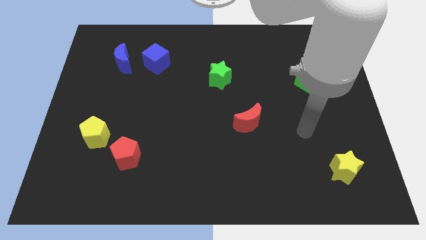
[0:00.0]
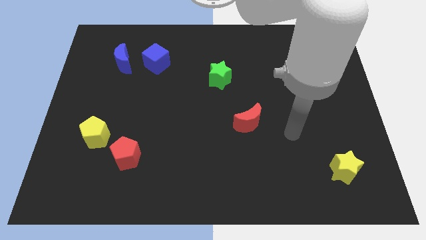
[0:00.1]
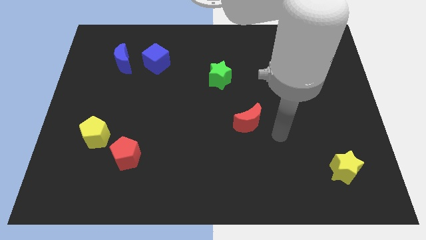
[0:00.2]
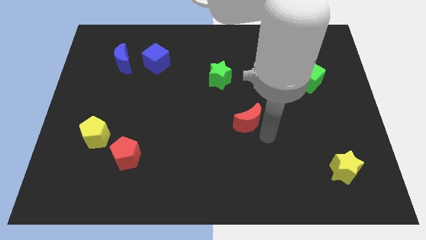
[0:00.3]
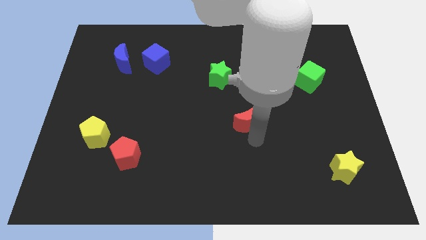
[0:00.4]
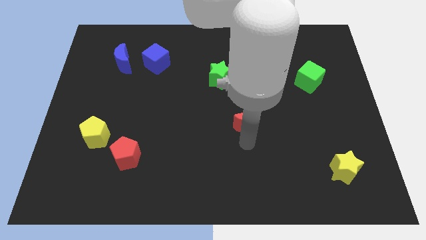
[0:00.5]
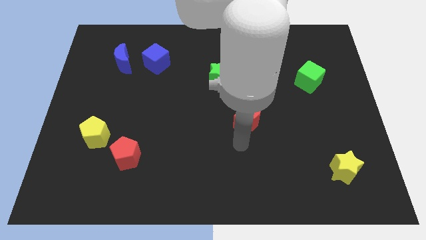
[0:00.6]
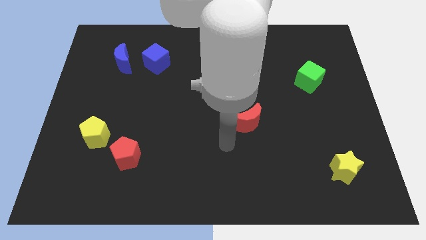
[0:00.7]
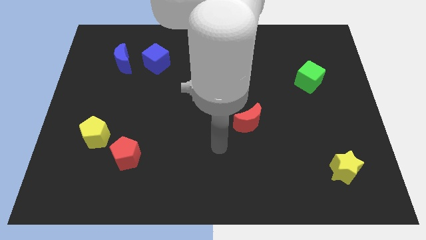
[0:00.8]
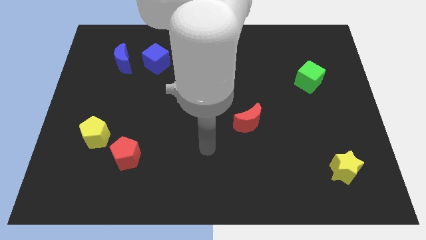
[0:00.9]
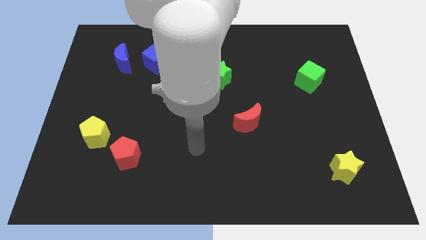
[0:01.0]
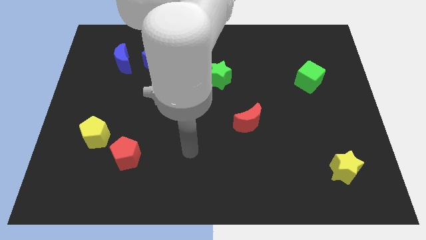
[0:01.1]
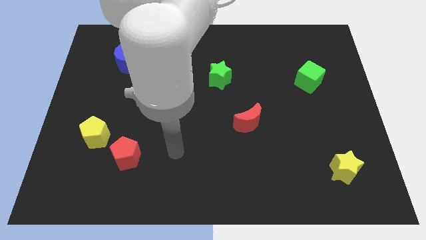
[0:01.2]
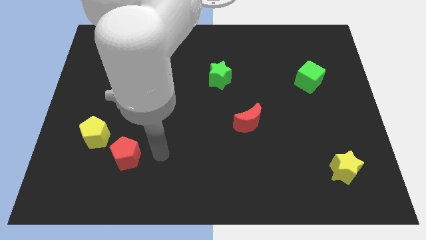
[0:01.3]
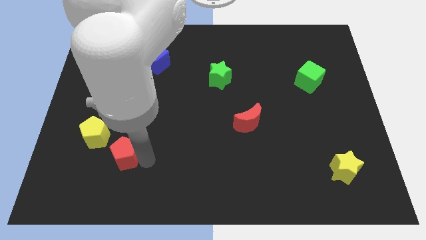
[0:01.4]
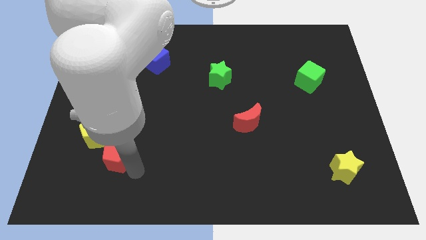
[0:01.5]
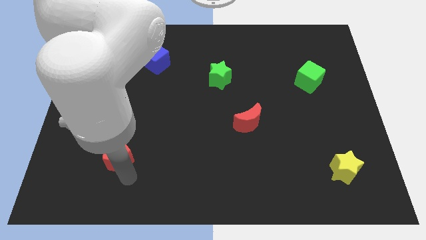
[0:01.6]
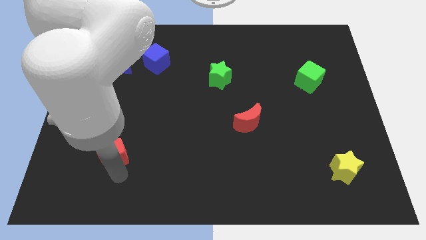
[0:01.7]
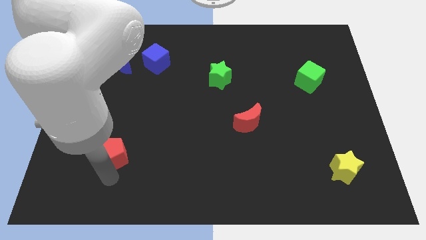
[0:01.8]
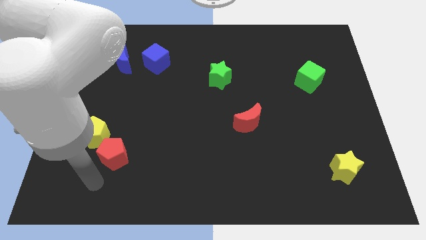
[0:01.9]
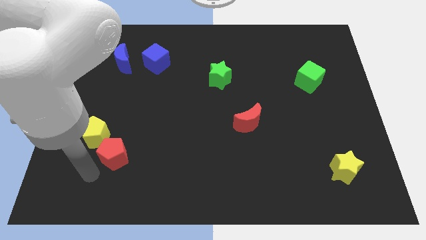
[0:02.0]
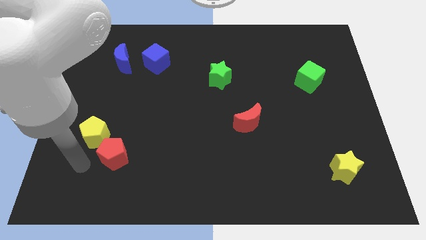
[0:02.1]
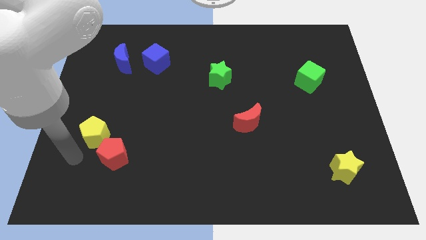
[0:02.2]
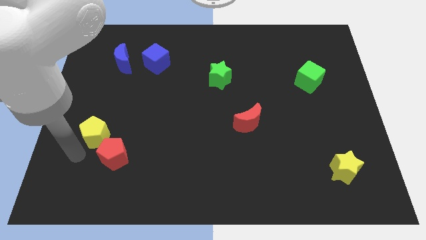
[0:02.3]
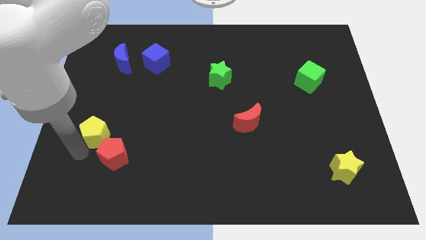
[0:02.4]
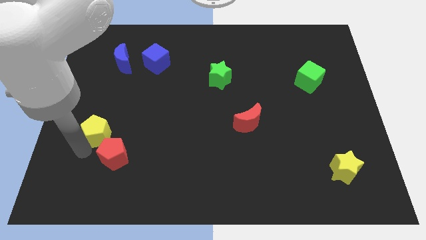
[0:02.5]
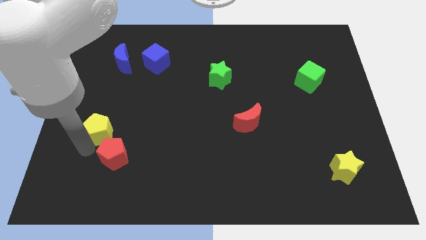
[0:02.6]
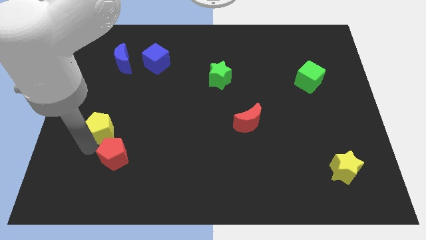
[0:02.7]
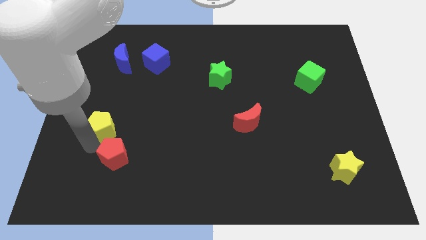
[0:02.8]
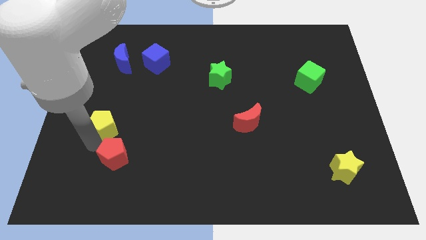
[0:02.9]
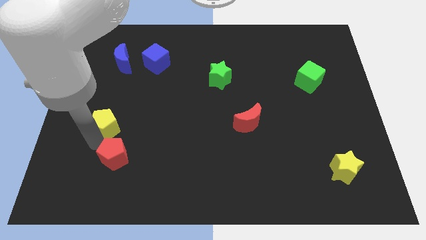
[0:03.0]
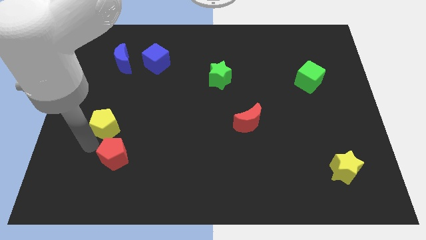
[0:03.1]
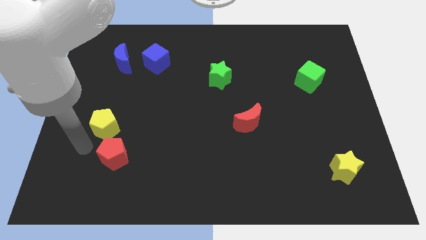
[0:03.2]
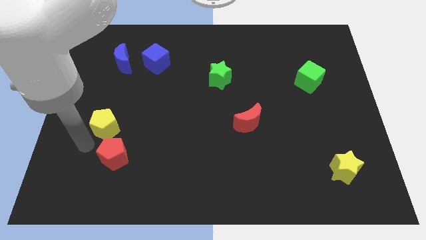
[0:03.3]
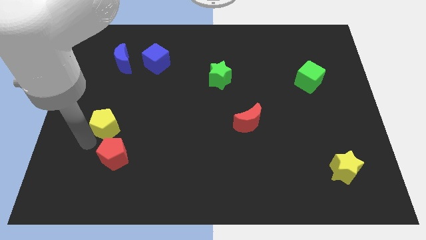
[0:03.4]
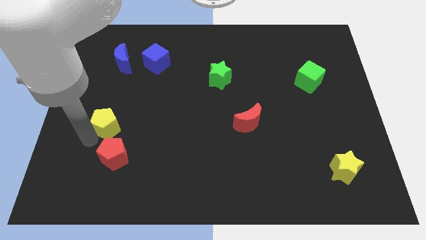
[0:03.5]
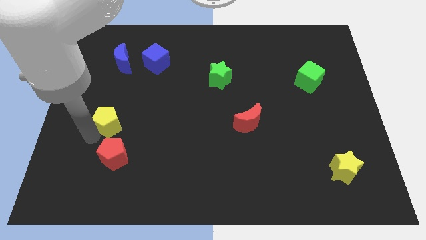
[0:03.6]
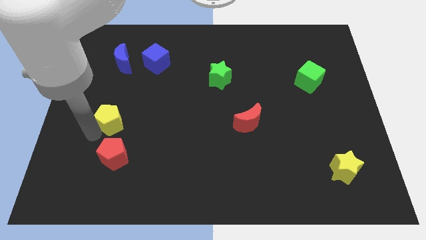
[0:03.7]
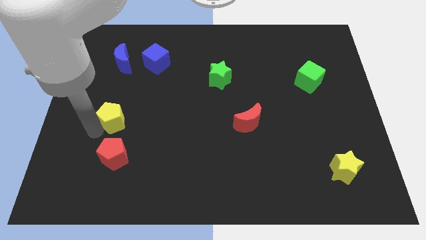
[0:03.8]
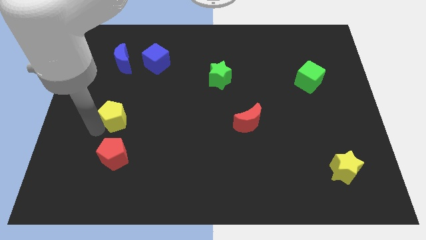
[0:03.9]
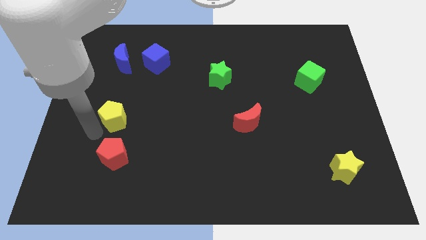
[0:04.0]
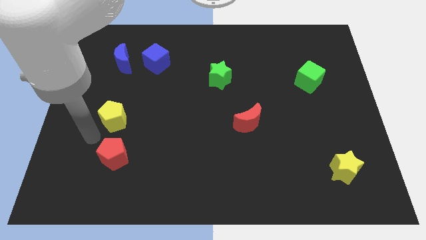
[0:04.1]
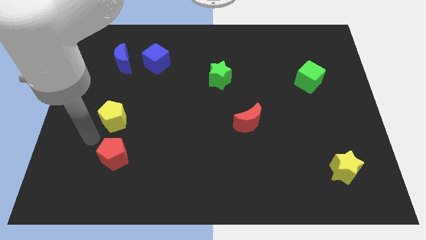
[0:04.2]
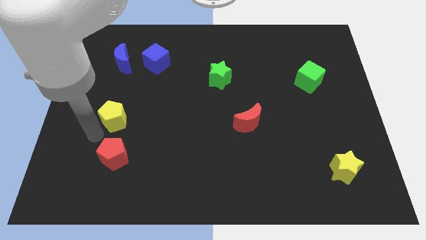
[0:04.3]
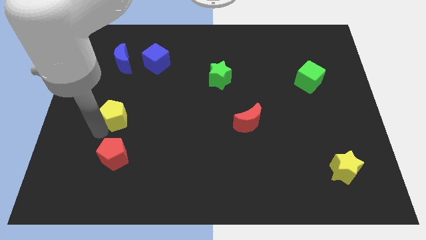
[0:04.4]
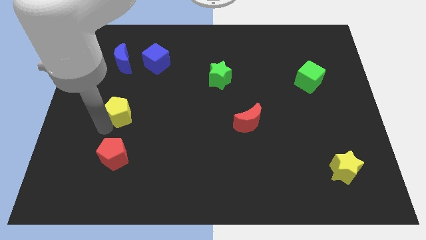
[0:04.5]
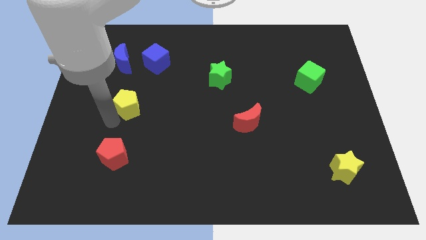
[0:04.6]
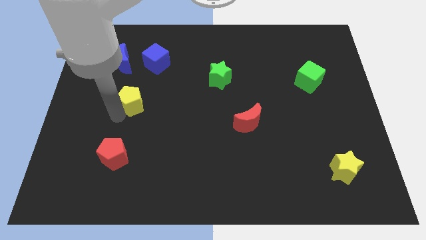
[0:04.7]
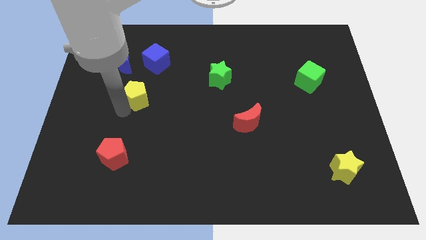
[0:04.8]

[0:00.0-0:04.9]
move the yellow pentagon below the blue cube

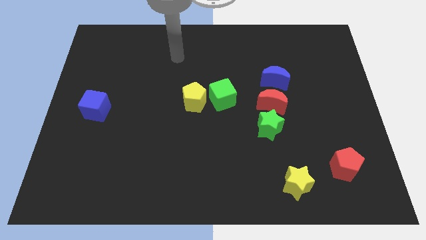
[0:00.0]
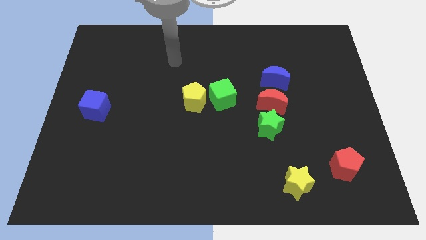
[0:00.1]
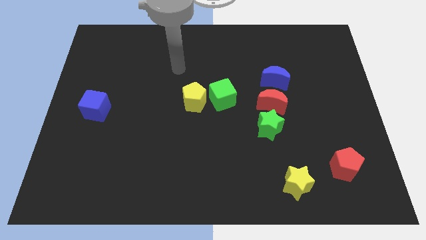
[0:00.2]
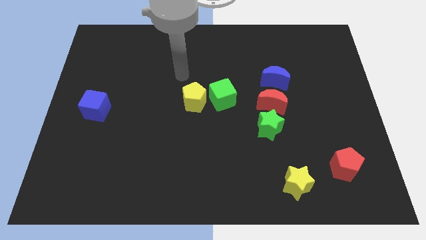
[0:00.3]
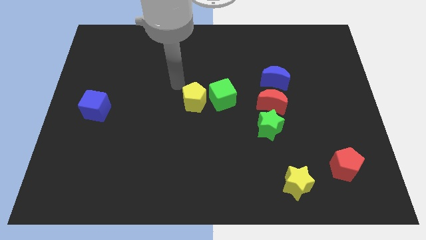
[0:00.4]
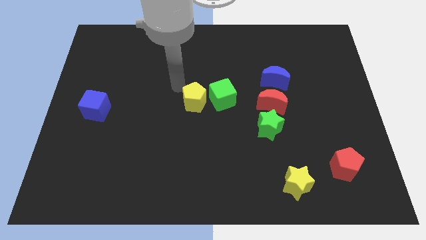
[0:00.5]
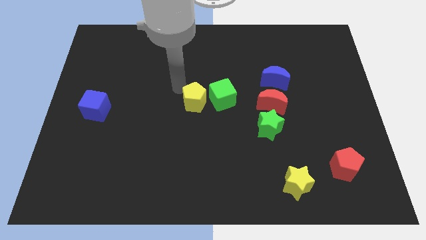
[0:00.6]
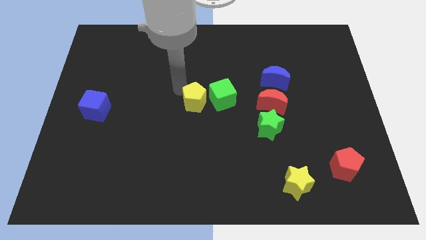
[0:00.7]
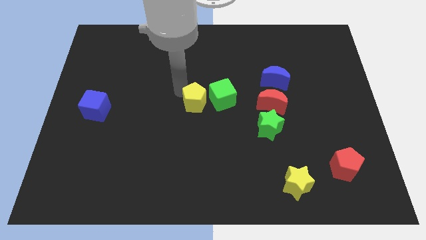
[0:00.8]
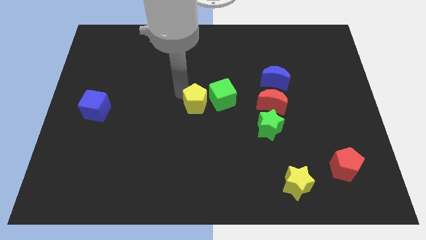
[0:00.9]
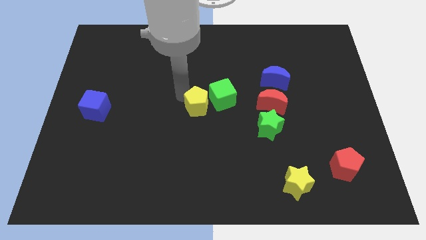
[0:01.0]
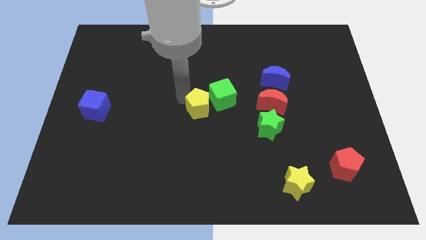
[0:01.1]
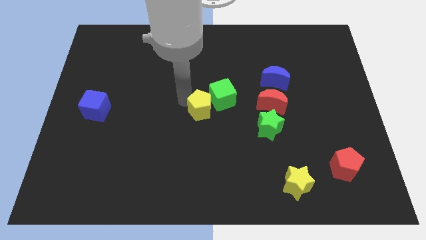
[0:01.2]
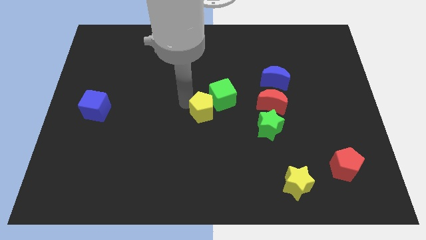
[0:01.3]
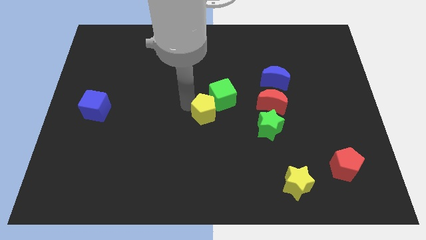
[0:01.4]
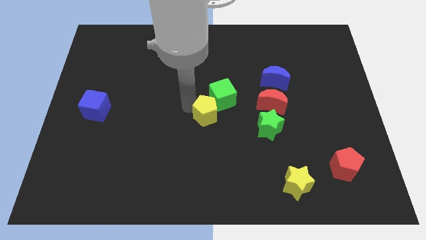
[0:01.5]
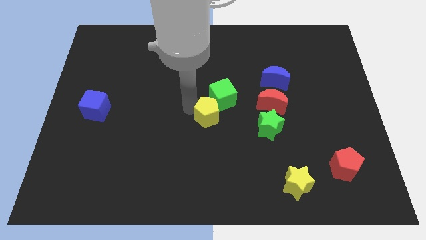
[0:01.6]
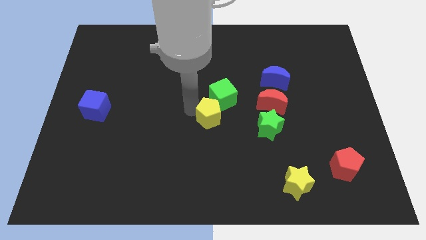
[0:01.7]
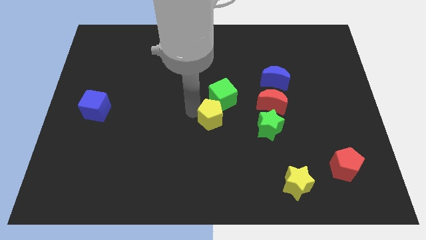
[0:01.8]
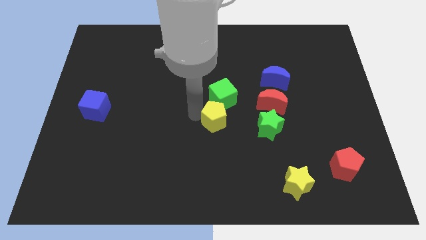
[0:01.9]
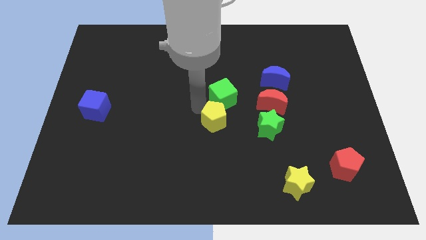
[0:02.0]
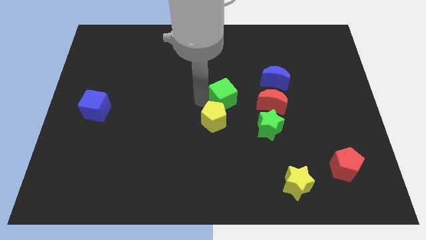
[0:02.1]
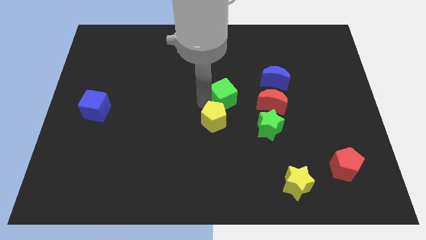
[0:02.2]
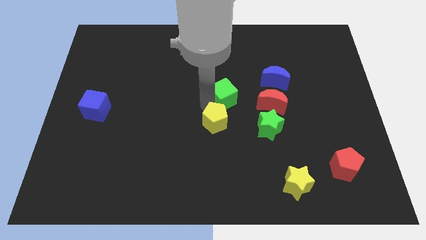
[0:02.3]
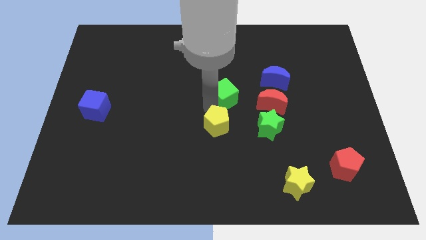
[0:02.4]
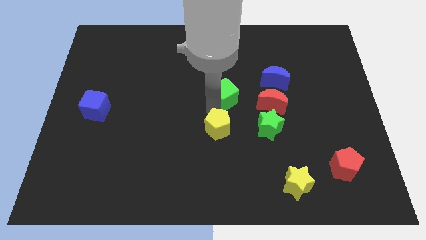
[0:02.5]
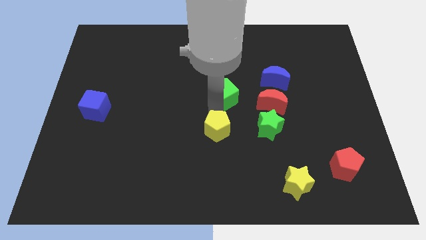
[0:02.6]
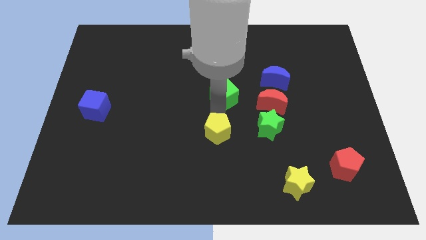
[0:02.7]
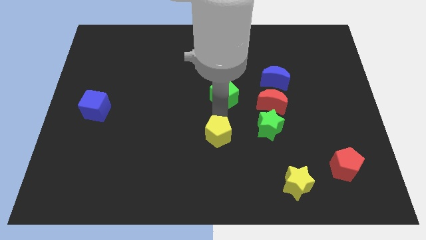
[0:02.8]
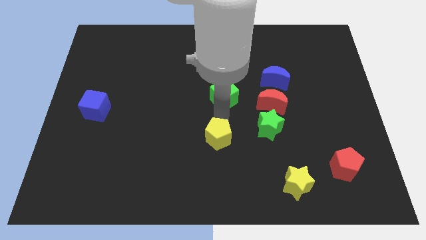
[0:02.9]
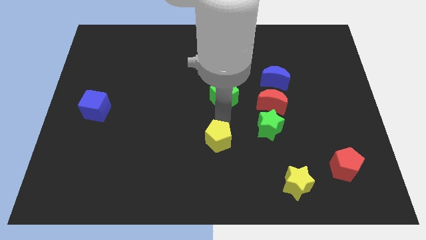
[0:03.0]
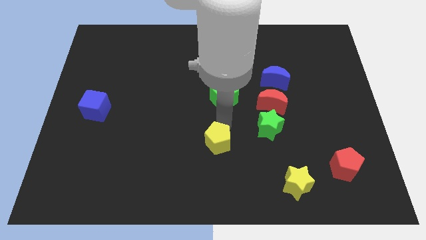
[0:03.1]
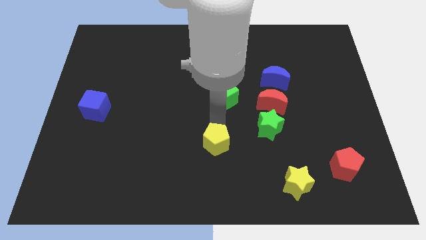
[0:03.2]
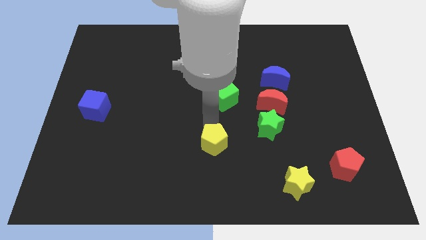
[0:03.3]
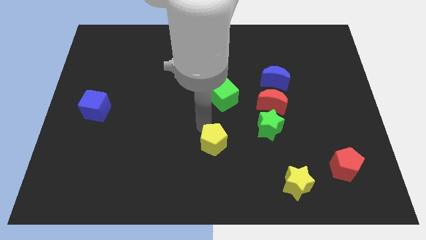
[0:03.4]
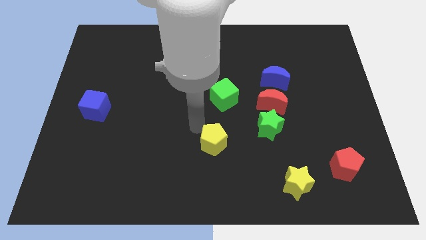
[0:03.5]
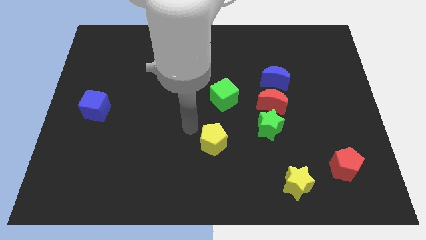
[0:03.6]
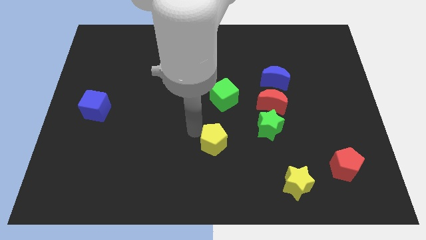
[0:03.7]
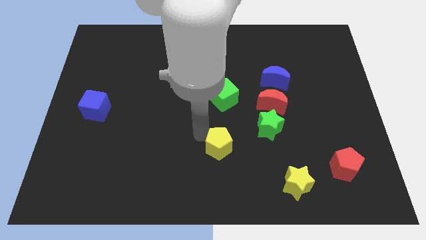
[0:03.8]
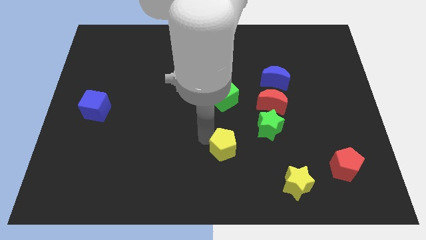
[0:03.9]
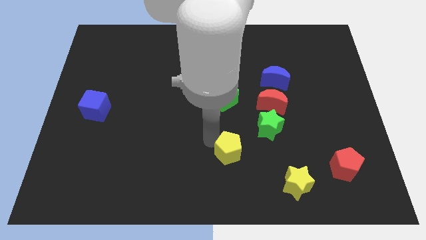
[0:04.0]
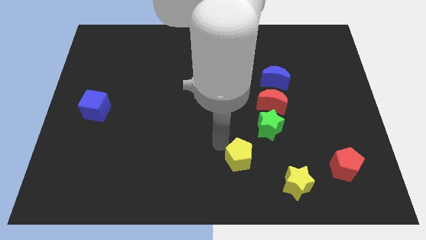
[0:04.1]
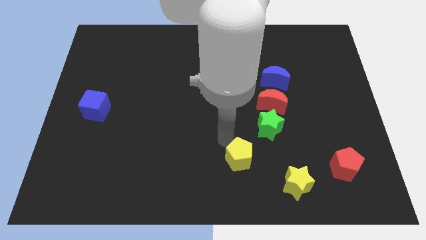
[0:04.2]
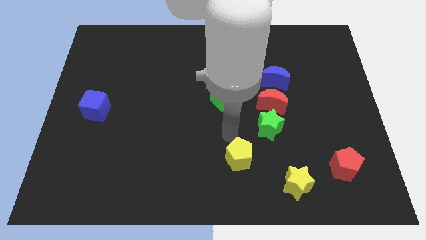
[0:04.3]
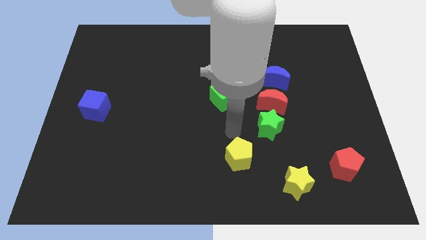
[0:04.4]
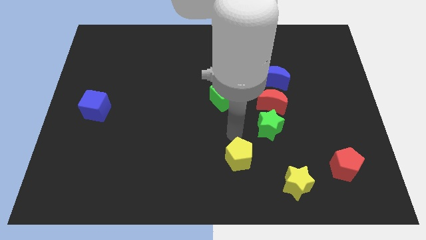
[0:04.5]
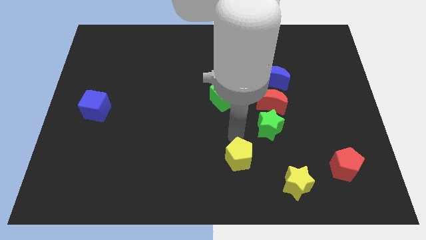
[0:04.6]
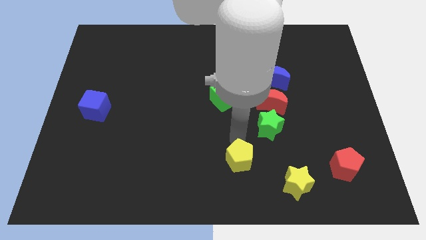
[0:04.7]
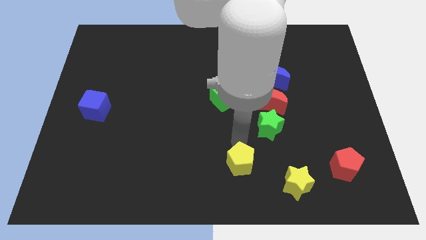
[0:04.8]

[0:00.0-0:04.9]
put the yellow pentagon to the left of the yellow star
